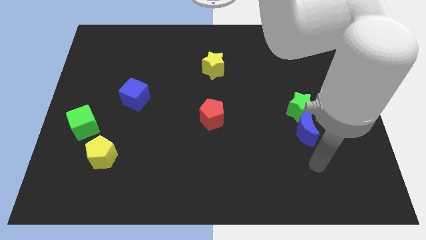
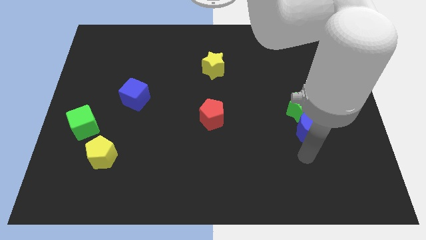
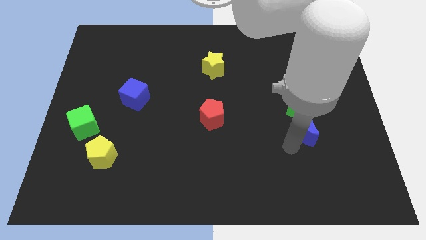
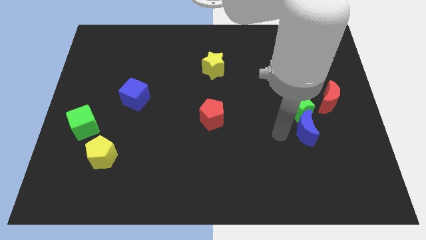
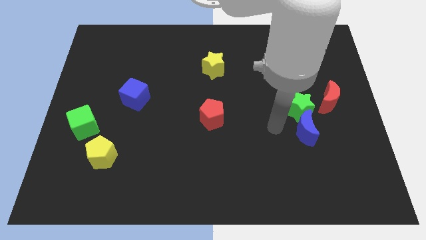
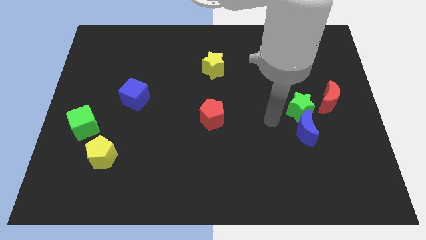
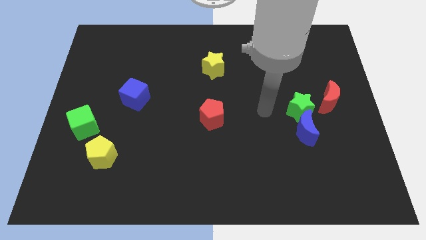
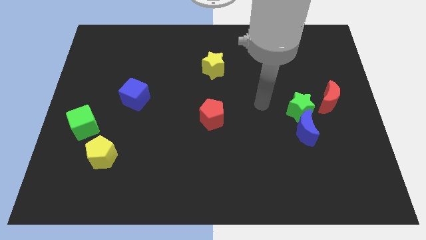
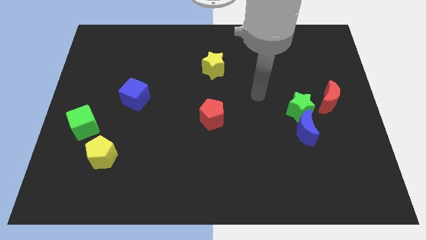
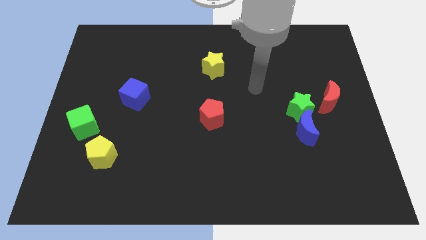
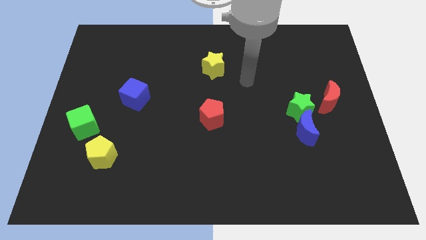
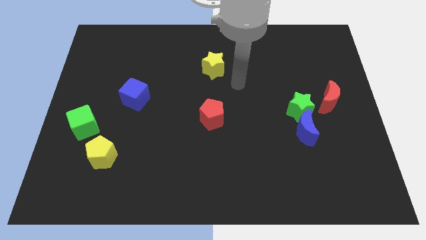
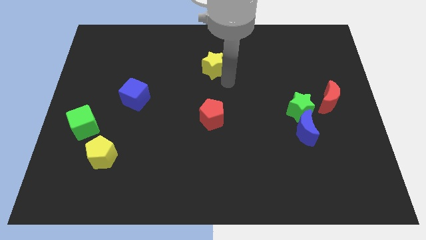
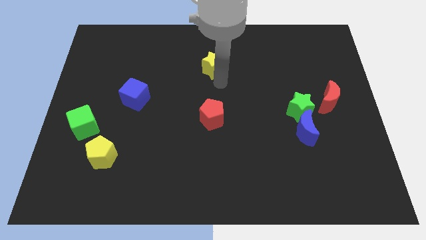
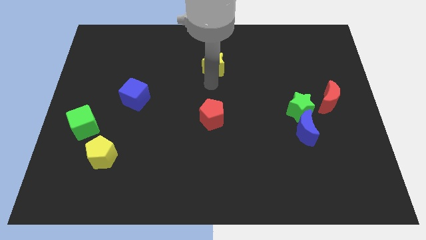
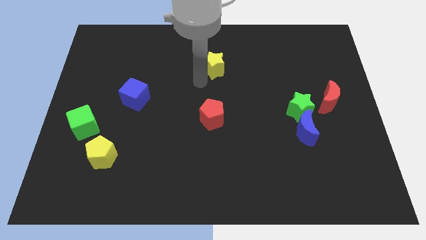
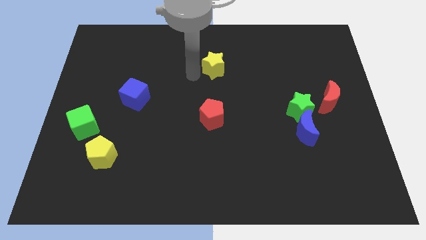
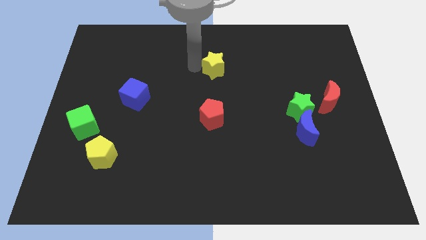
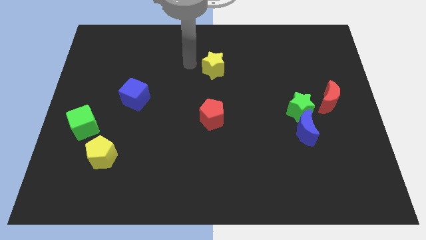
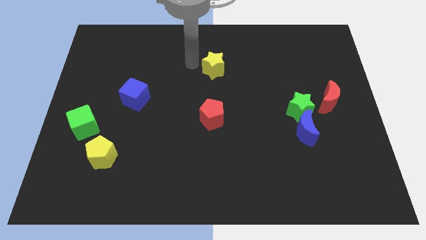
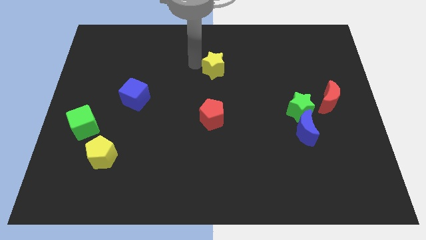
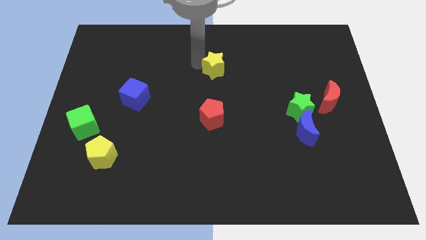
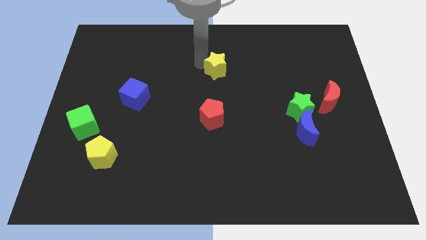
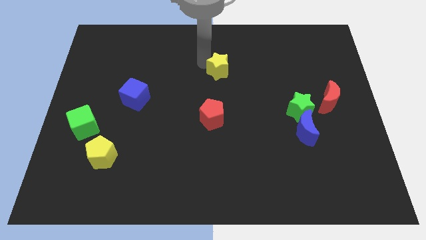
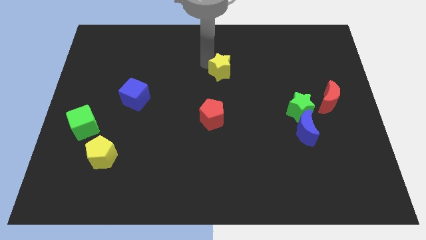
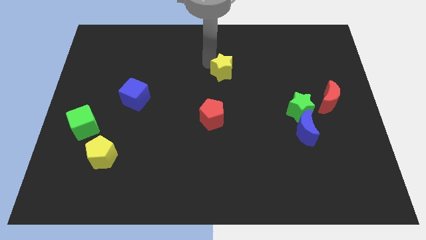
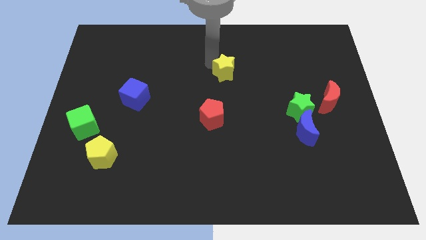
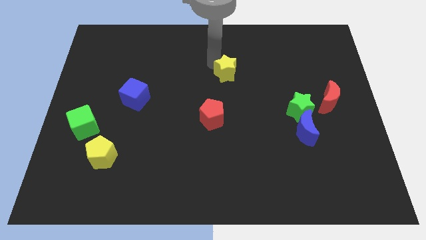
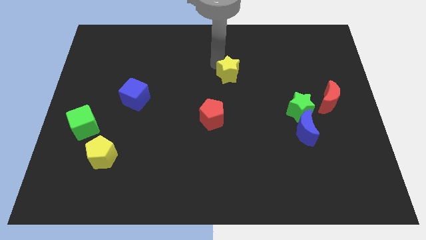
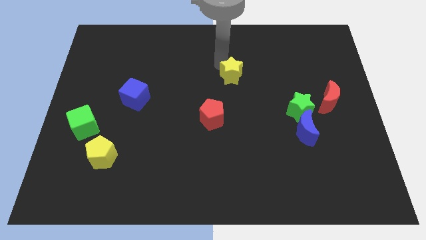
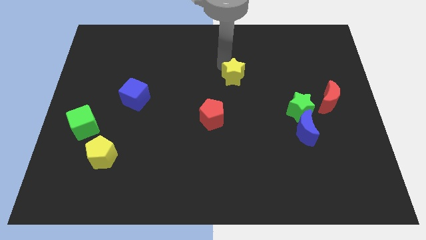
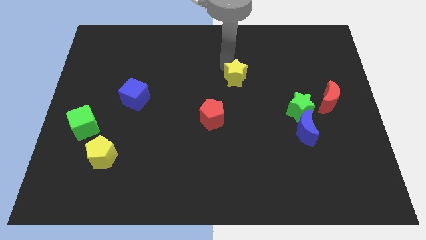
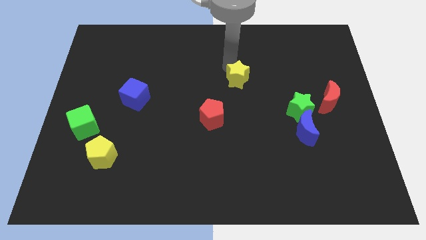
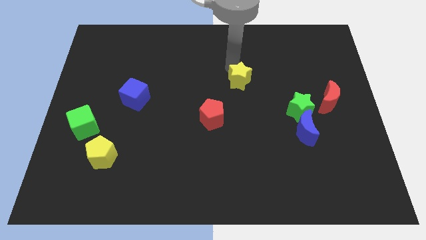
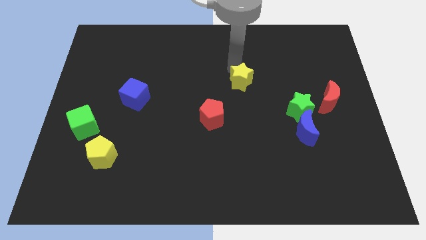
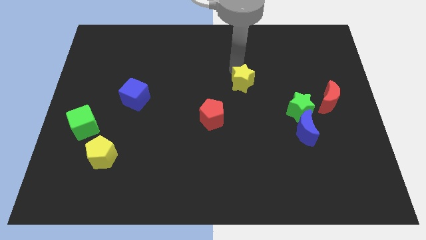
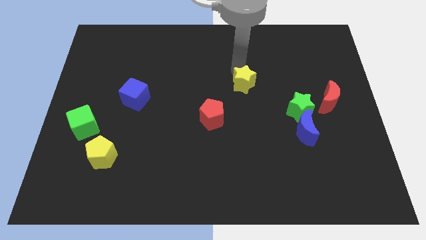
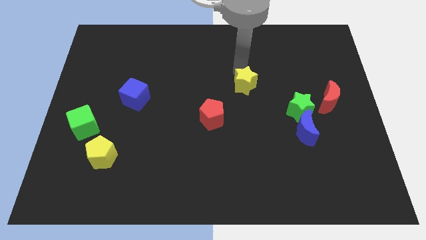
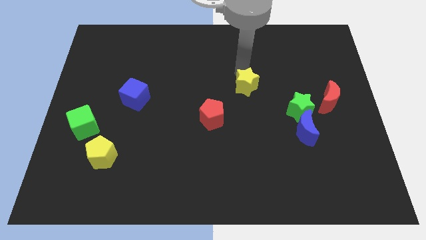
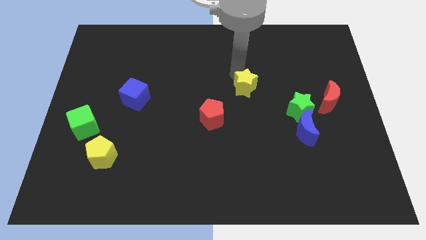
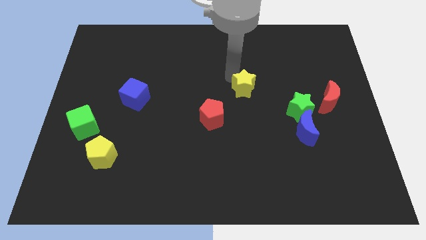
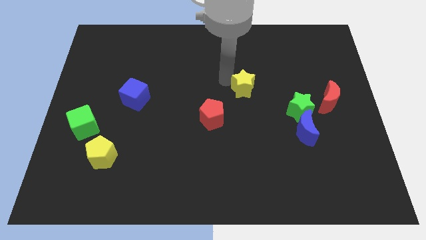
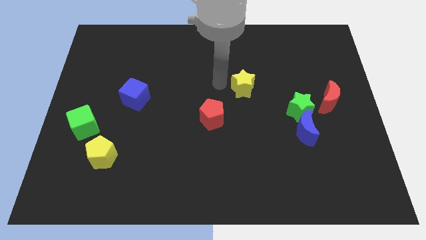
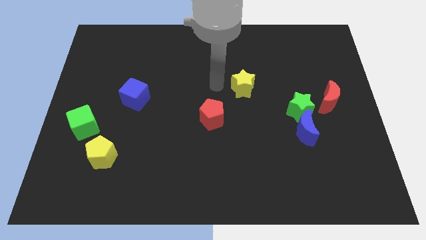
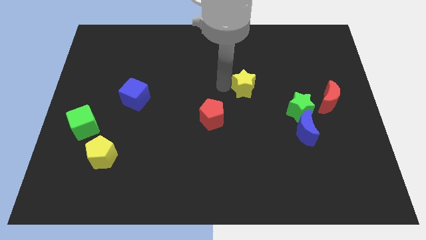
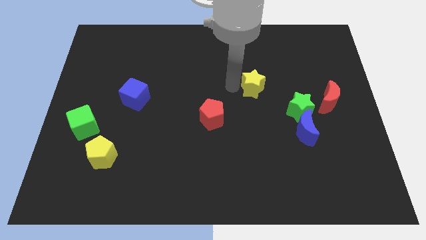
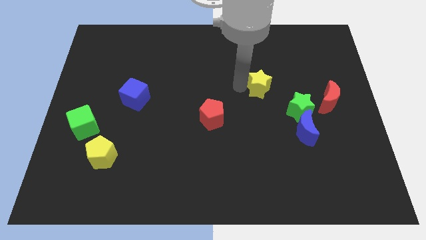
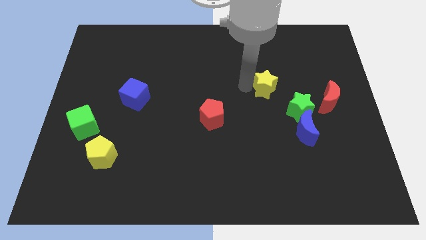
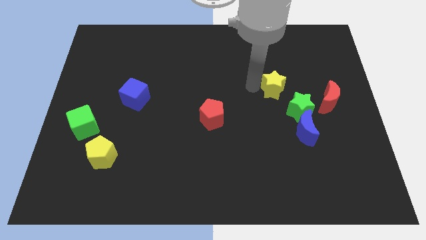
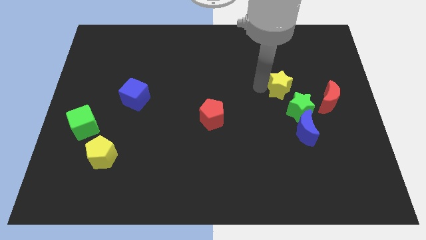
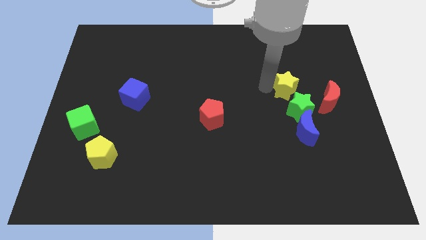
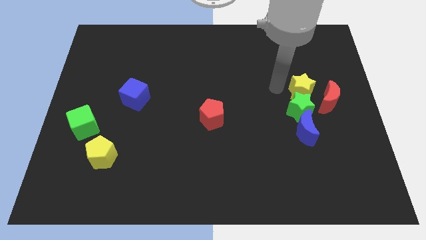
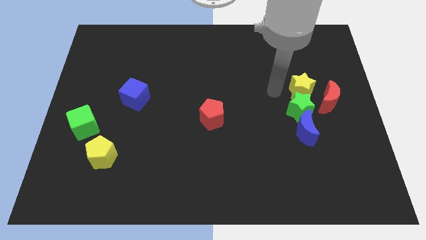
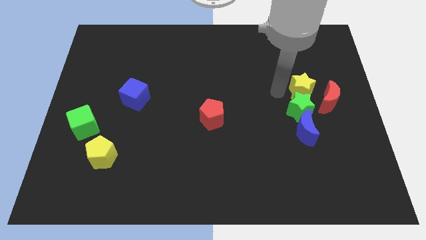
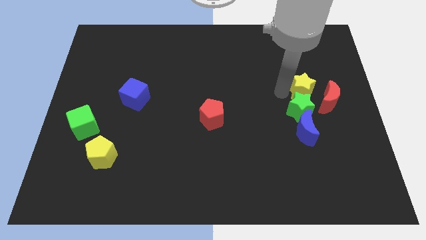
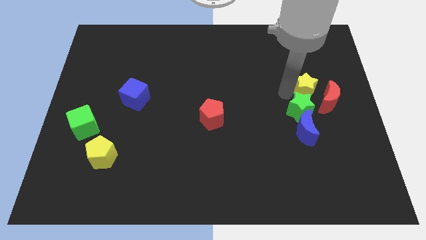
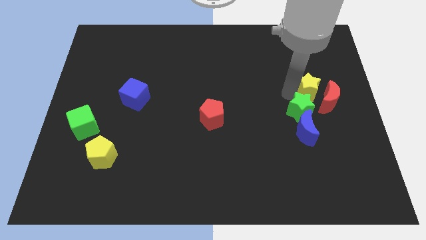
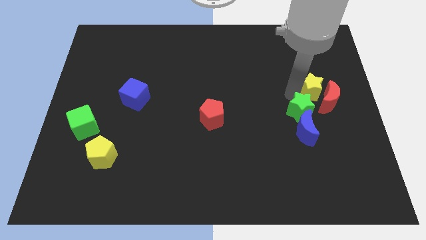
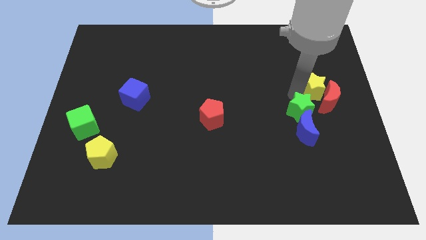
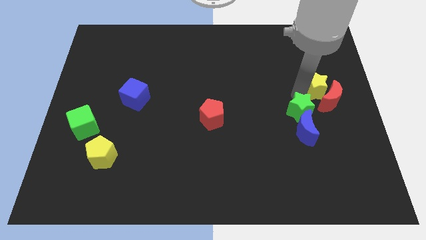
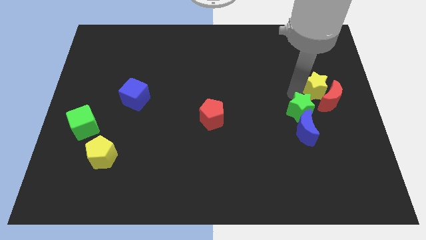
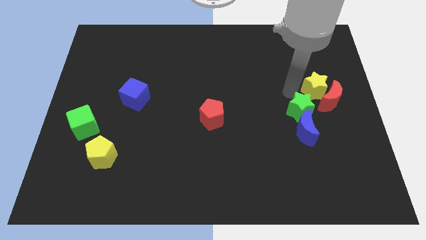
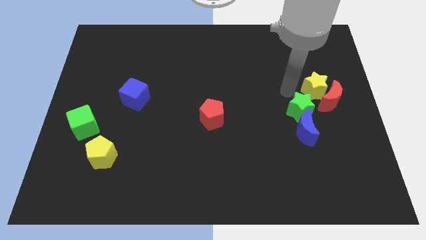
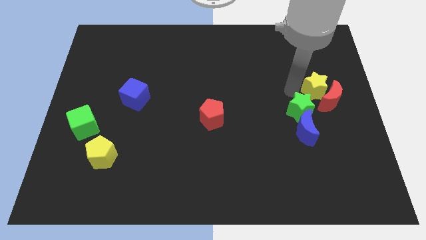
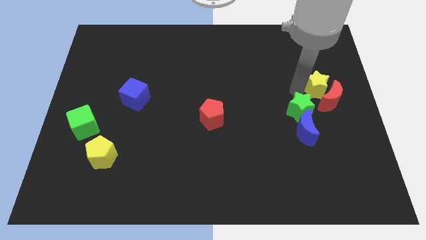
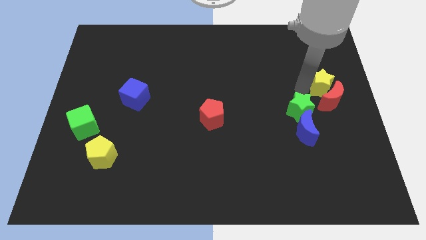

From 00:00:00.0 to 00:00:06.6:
push the yellow star to the right side of the board
